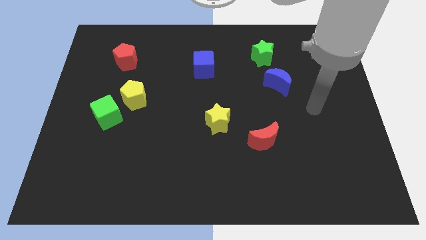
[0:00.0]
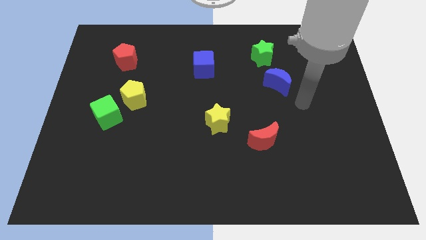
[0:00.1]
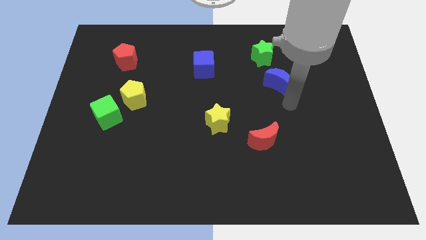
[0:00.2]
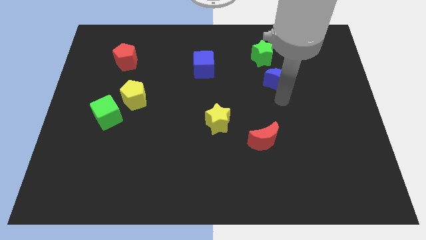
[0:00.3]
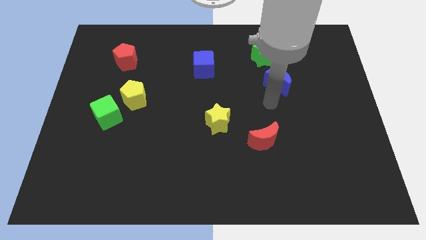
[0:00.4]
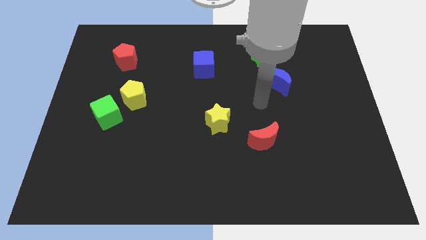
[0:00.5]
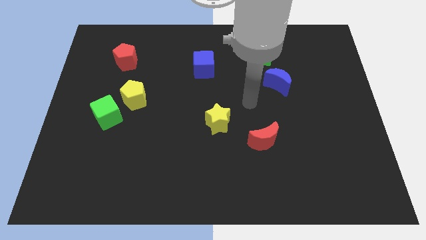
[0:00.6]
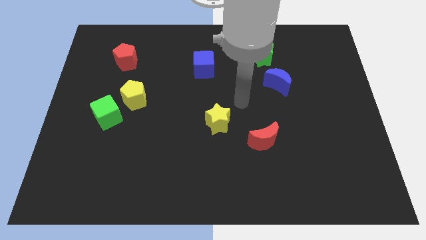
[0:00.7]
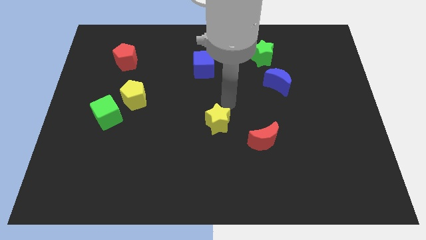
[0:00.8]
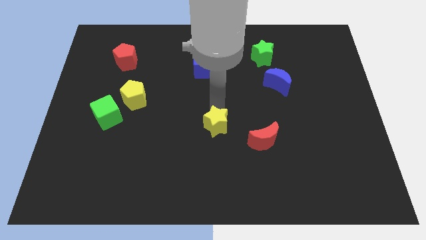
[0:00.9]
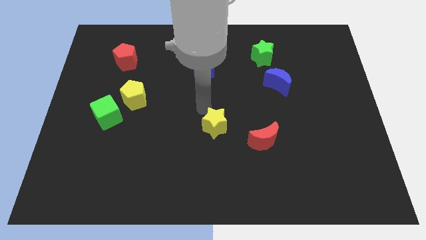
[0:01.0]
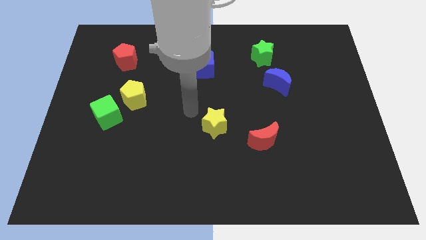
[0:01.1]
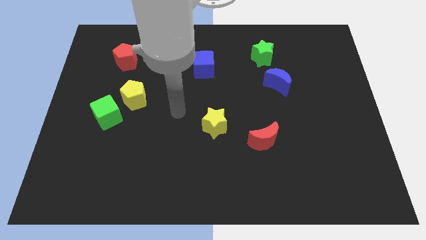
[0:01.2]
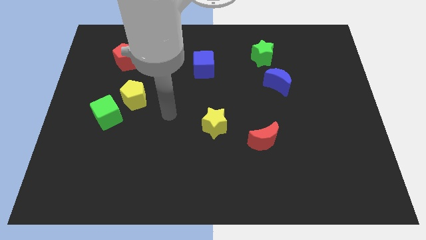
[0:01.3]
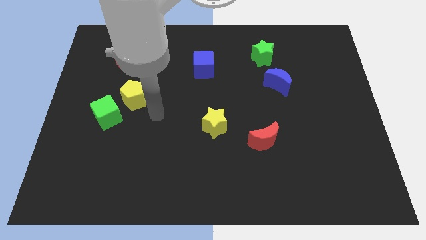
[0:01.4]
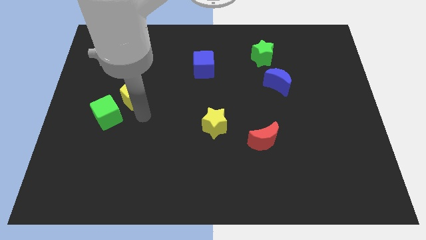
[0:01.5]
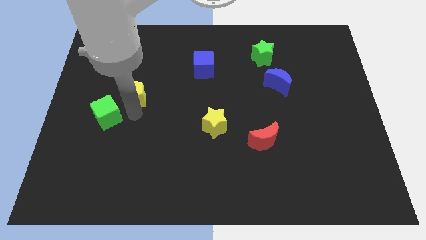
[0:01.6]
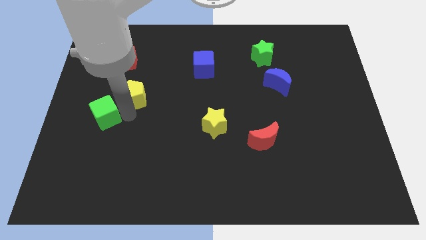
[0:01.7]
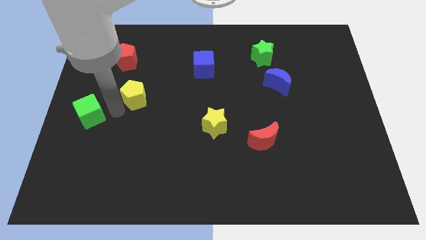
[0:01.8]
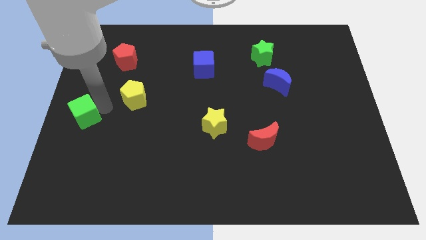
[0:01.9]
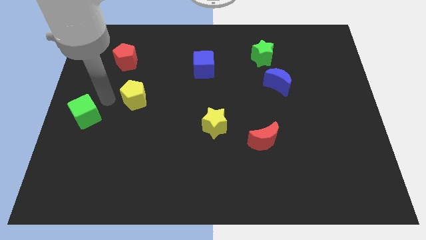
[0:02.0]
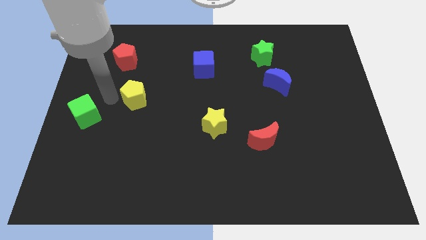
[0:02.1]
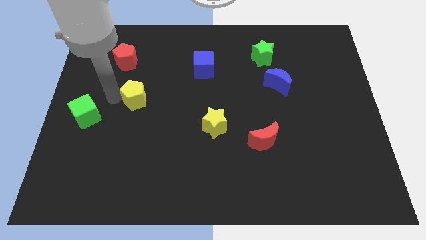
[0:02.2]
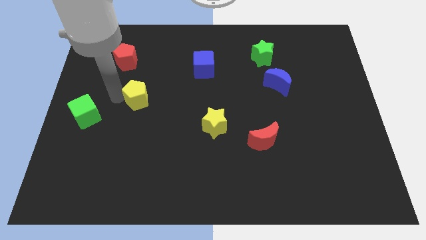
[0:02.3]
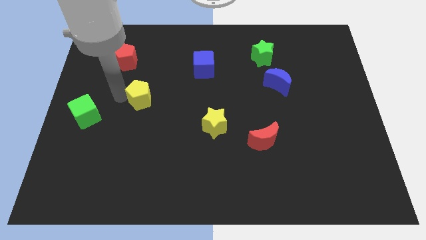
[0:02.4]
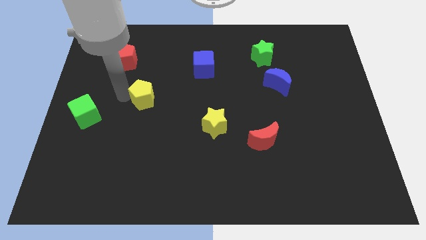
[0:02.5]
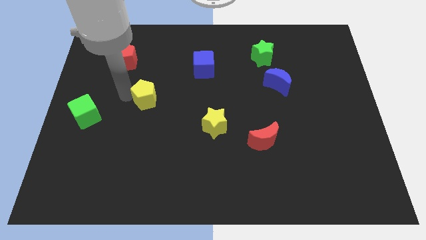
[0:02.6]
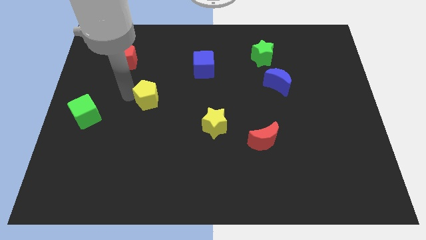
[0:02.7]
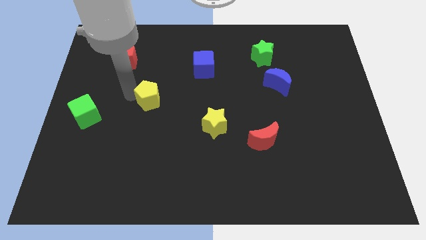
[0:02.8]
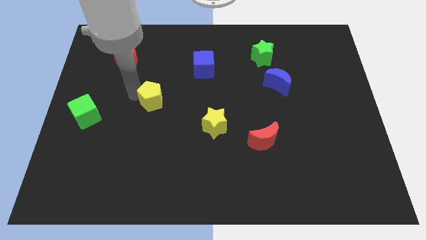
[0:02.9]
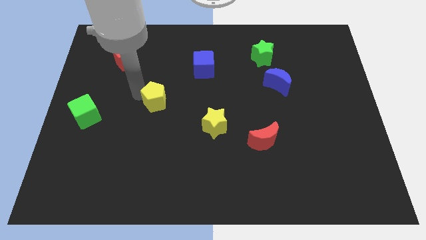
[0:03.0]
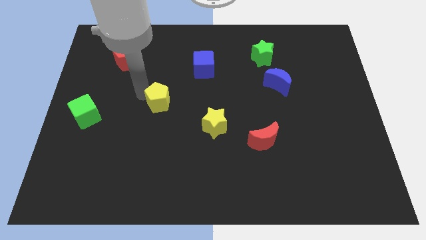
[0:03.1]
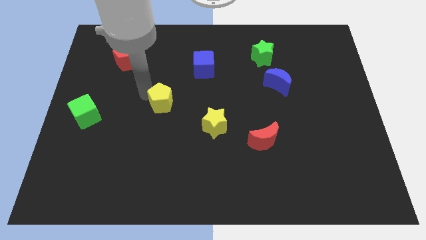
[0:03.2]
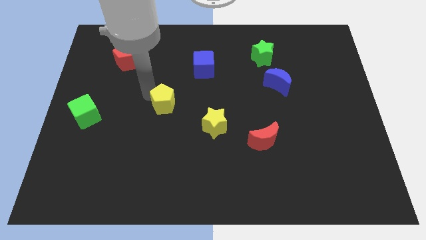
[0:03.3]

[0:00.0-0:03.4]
slightly slide the yellow pentagon right

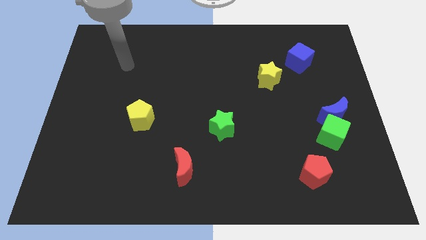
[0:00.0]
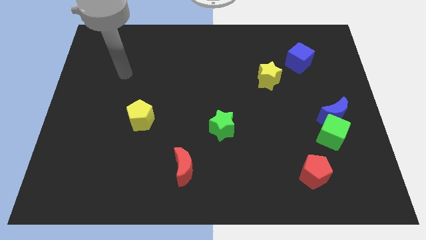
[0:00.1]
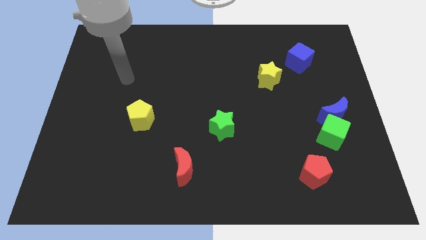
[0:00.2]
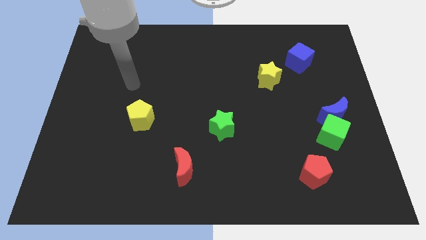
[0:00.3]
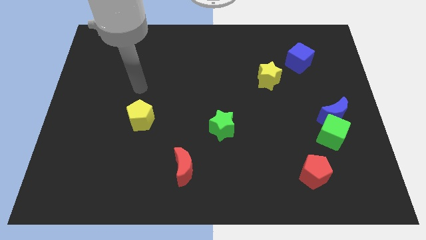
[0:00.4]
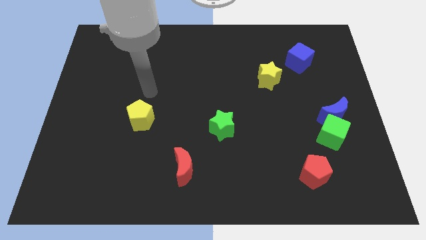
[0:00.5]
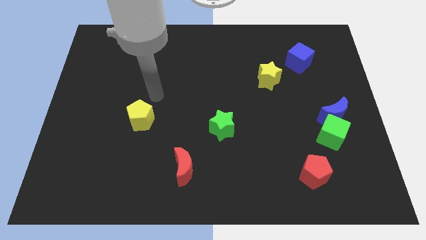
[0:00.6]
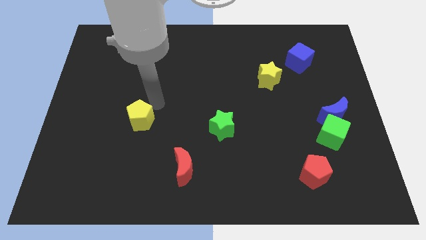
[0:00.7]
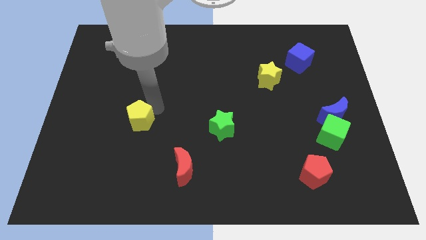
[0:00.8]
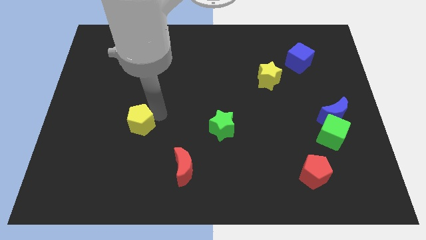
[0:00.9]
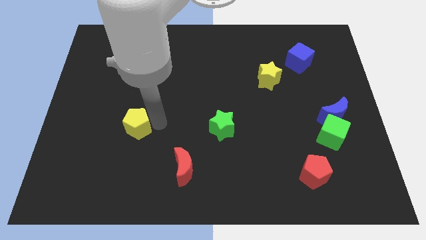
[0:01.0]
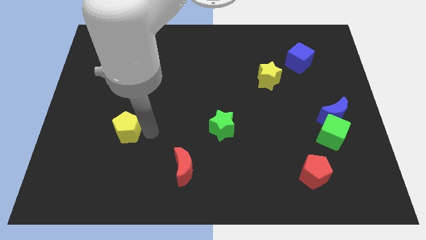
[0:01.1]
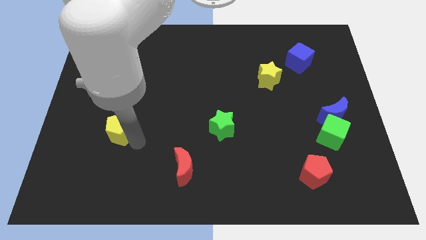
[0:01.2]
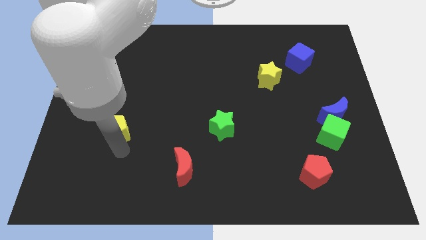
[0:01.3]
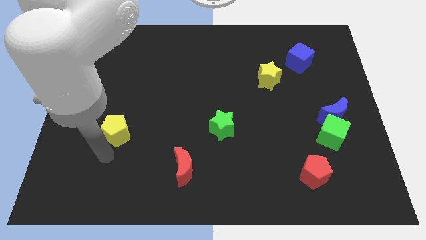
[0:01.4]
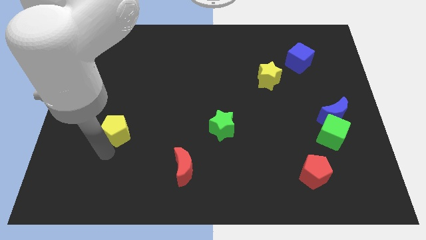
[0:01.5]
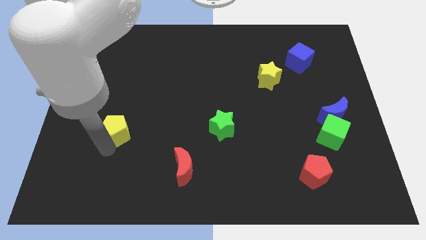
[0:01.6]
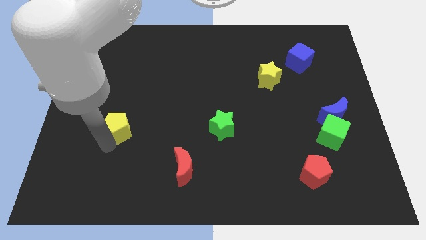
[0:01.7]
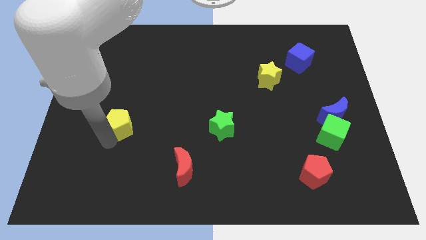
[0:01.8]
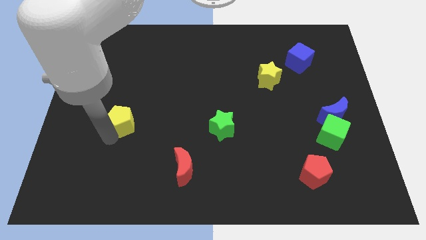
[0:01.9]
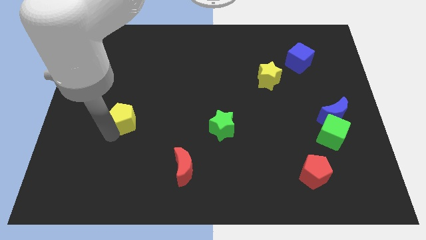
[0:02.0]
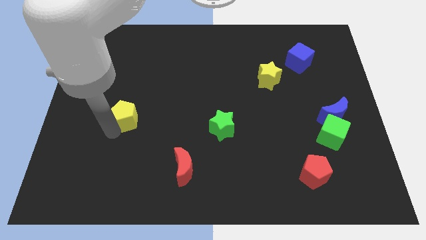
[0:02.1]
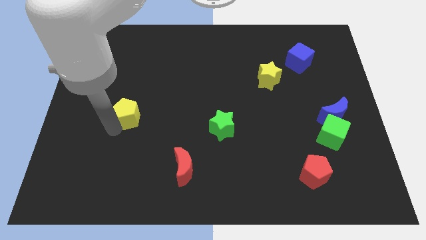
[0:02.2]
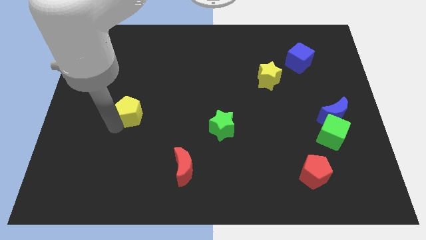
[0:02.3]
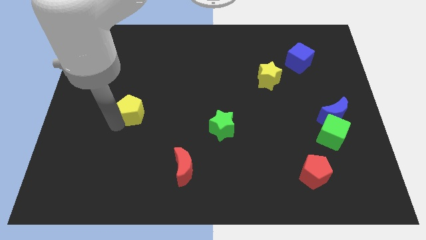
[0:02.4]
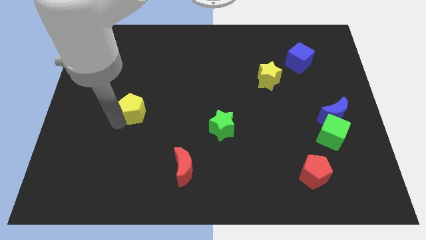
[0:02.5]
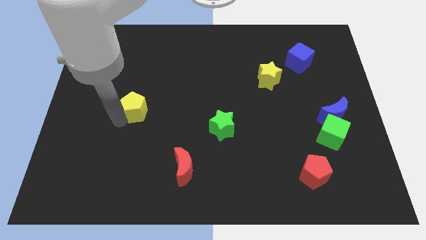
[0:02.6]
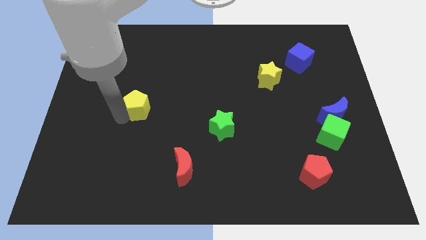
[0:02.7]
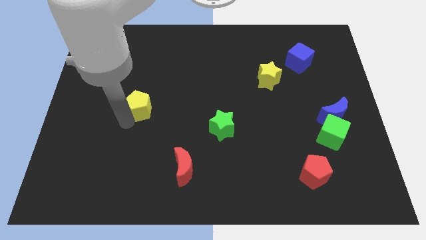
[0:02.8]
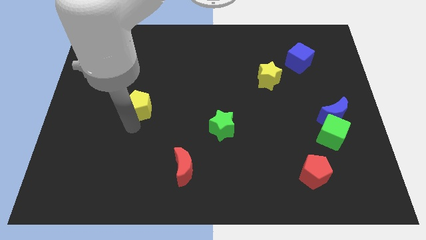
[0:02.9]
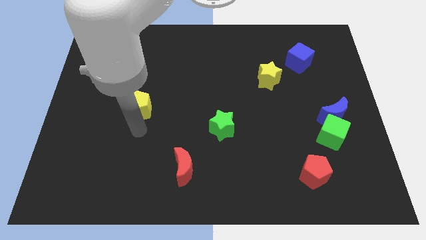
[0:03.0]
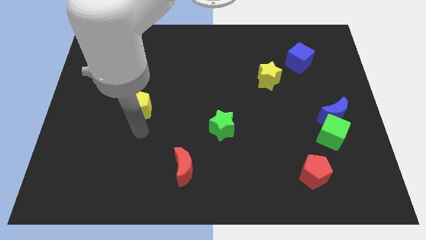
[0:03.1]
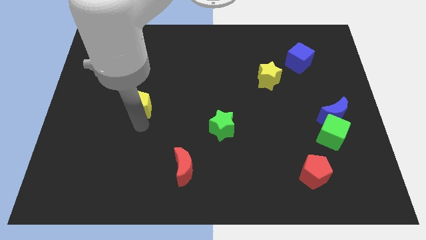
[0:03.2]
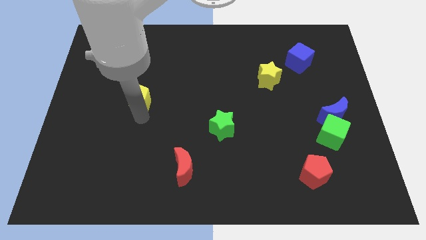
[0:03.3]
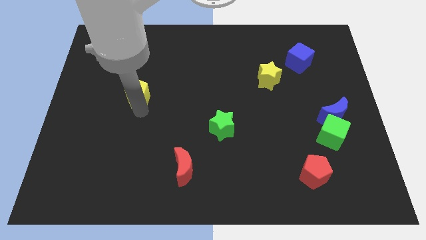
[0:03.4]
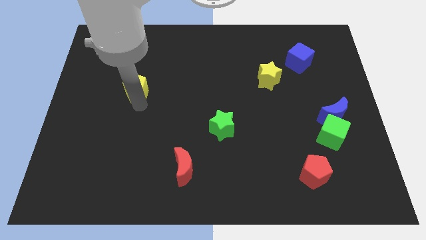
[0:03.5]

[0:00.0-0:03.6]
slightly push the yellow pentagon up

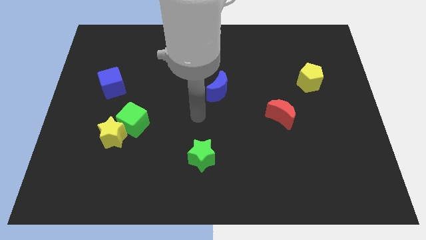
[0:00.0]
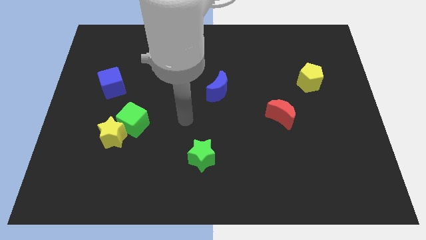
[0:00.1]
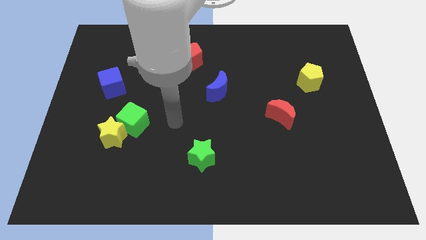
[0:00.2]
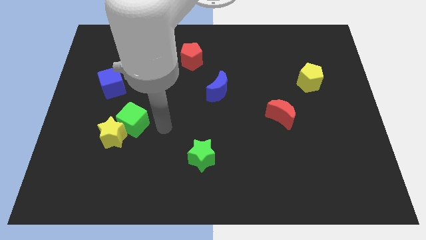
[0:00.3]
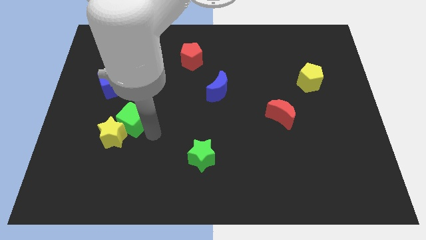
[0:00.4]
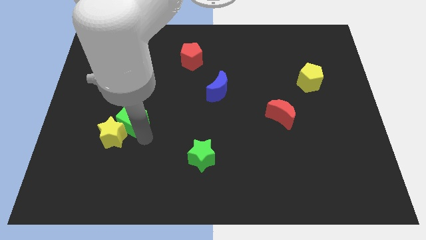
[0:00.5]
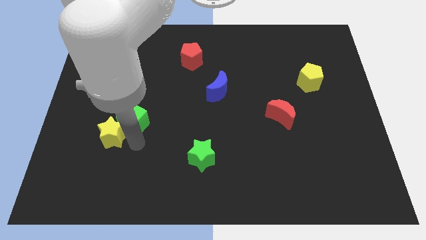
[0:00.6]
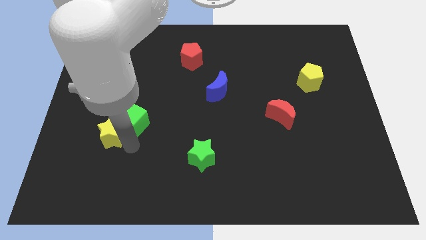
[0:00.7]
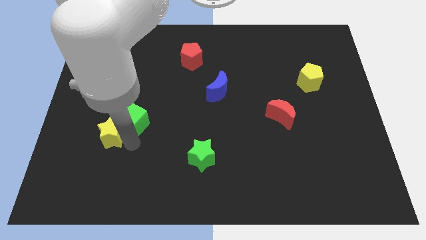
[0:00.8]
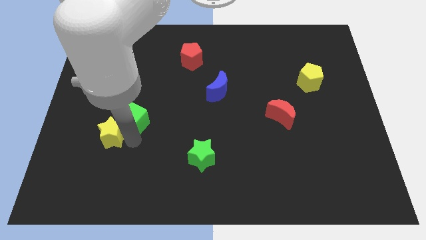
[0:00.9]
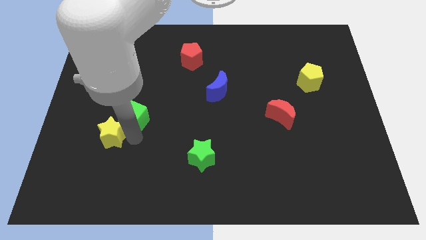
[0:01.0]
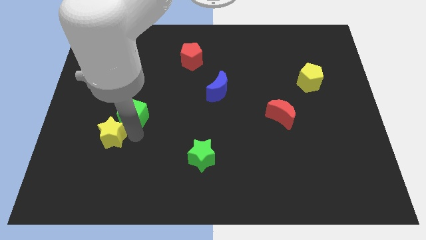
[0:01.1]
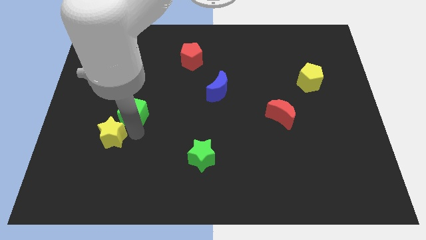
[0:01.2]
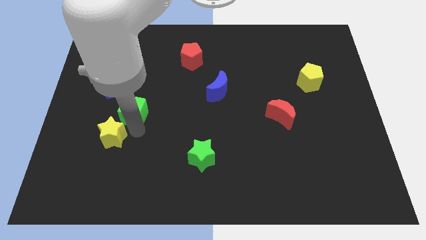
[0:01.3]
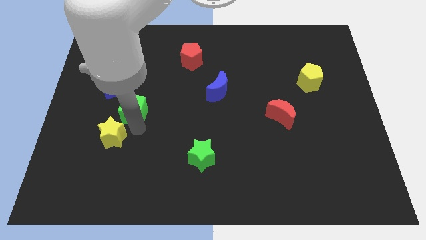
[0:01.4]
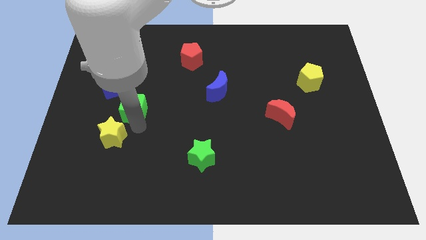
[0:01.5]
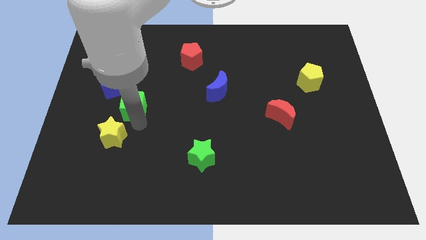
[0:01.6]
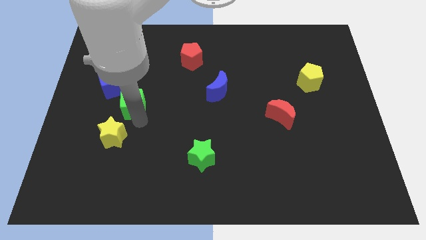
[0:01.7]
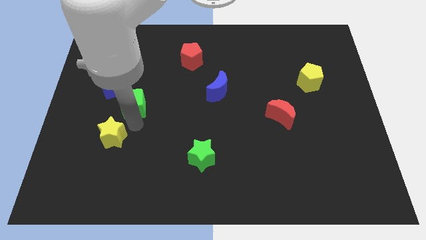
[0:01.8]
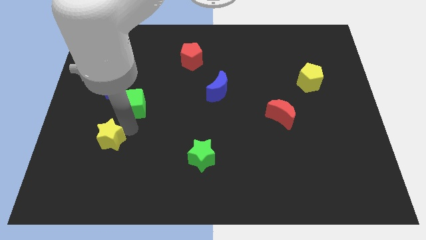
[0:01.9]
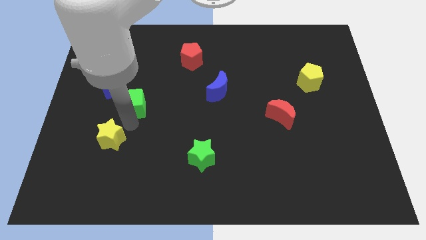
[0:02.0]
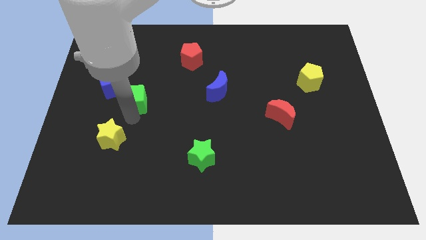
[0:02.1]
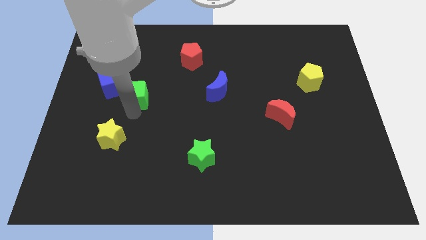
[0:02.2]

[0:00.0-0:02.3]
slide the green cube up somewhat
